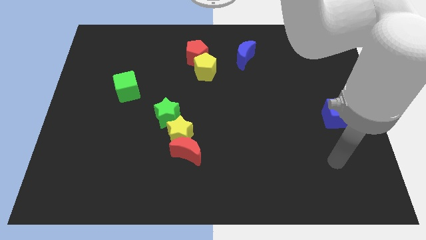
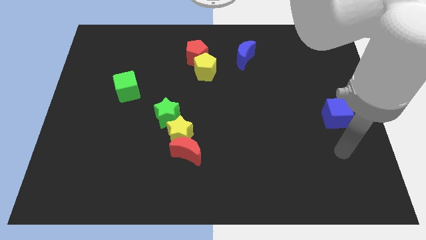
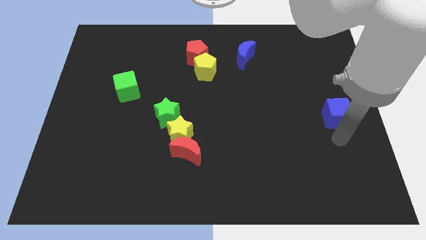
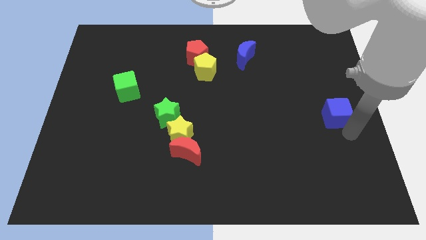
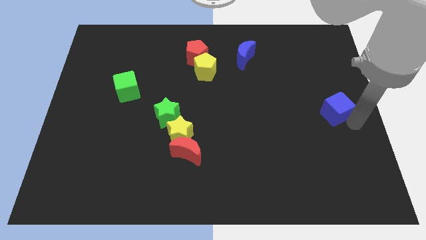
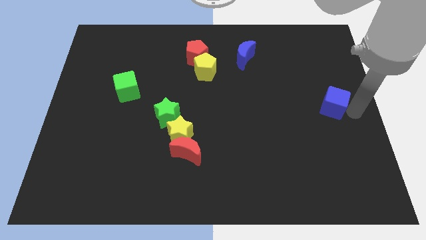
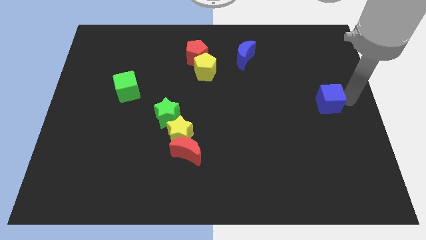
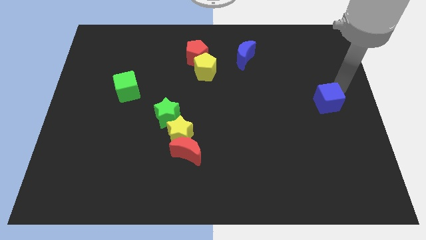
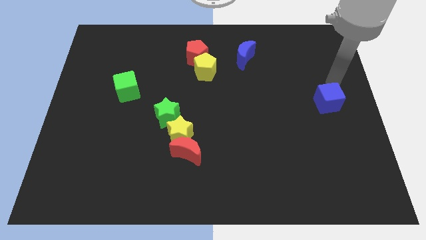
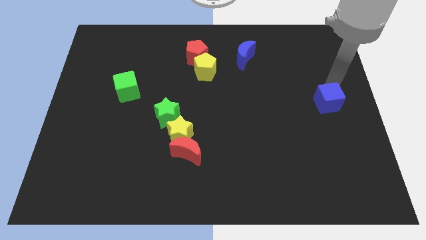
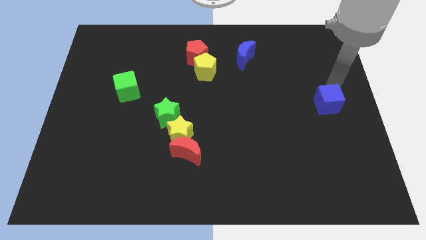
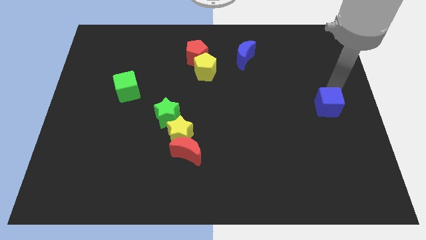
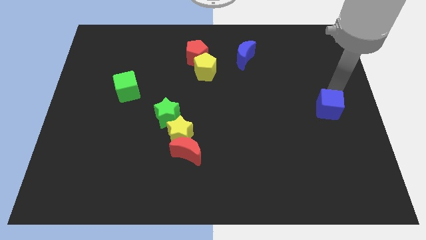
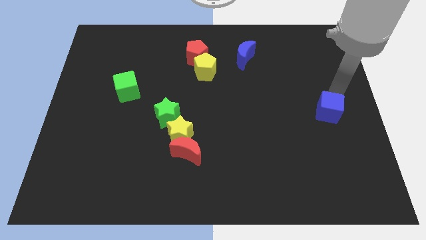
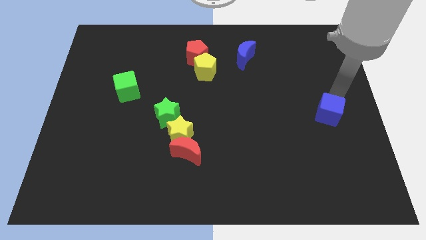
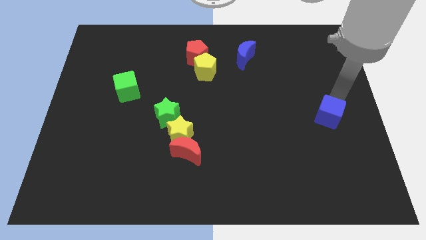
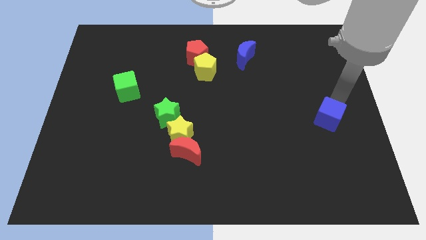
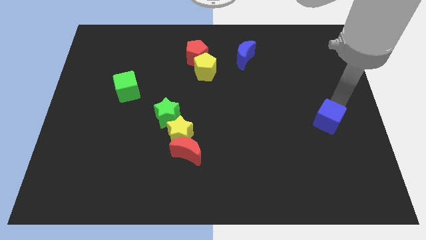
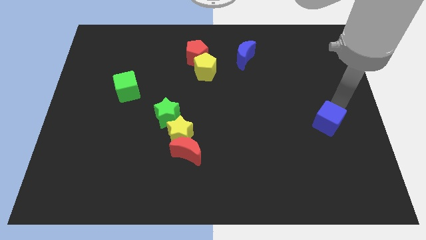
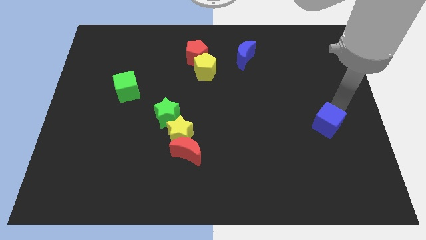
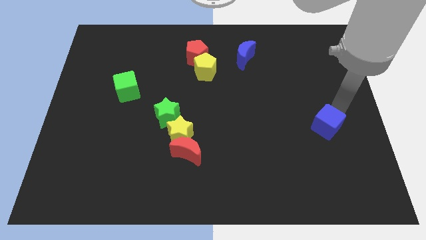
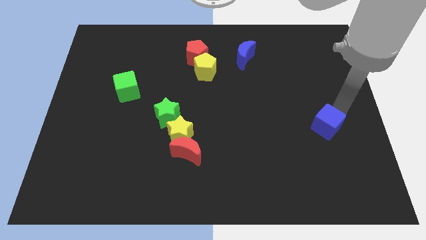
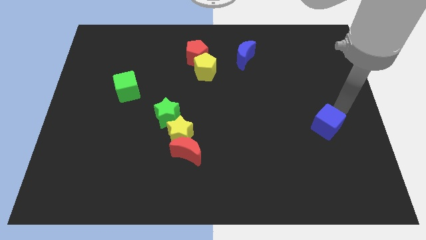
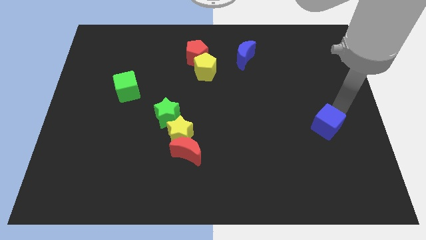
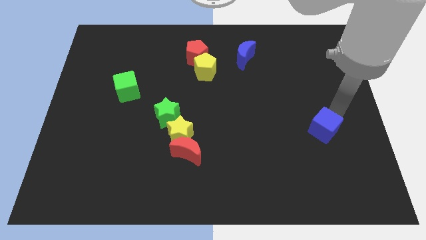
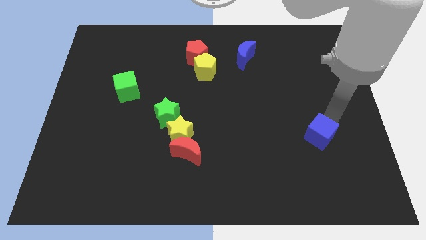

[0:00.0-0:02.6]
move the blue cube diagonally downwards and left a little bit

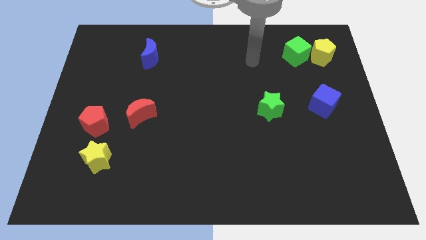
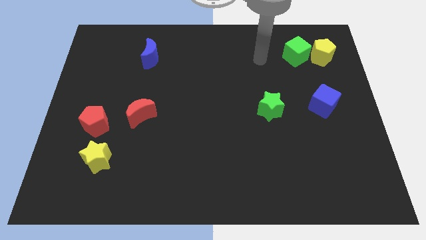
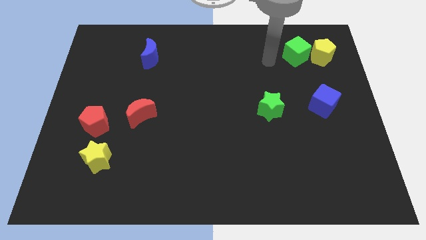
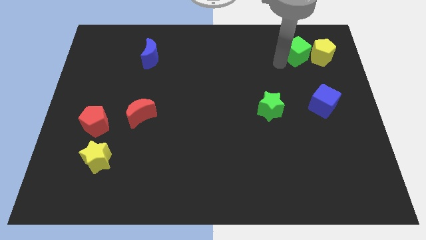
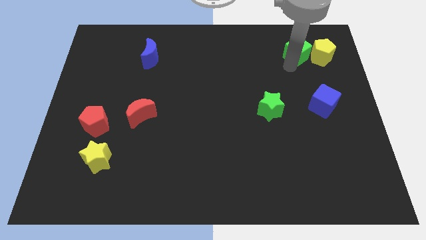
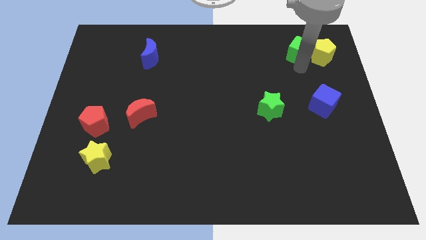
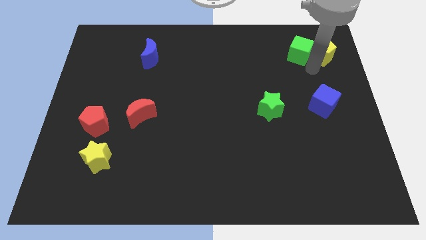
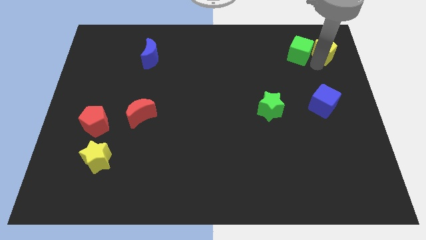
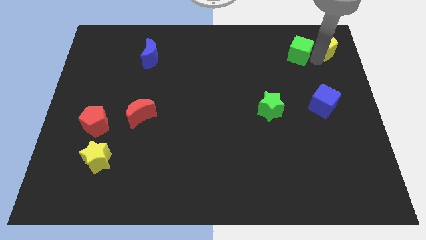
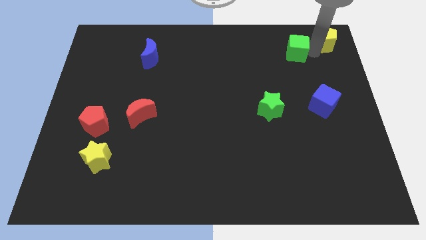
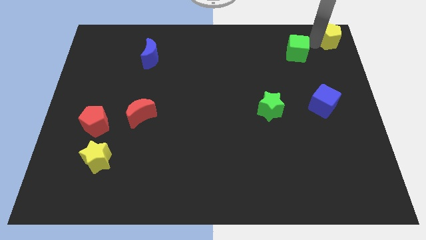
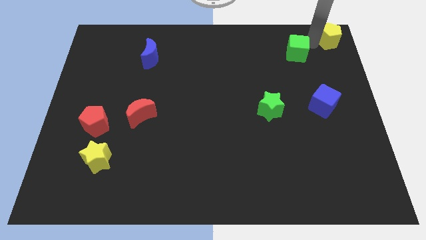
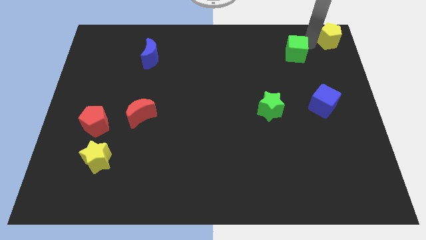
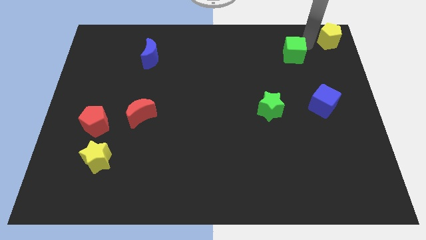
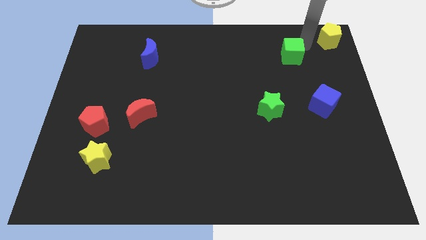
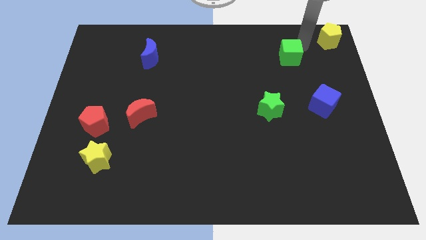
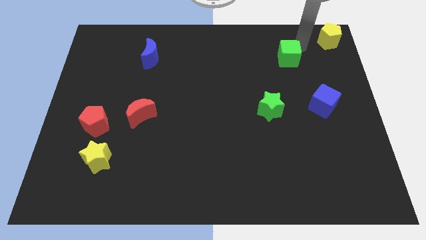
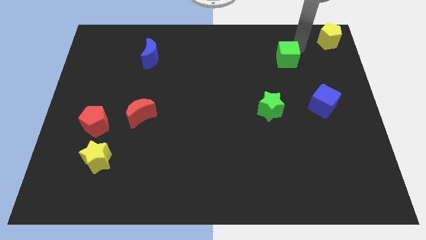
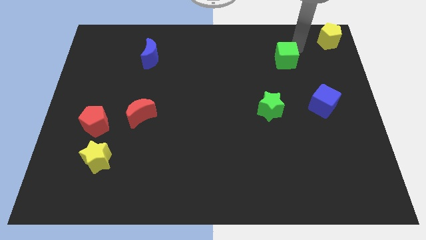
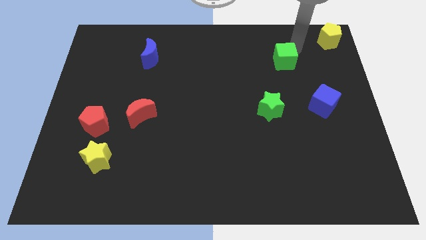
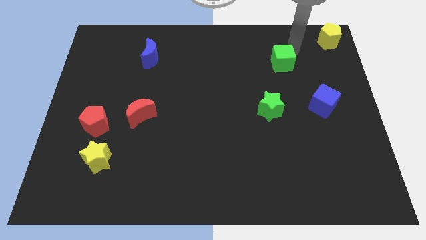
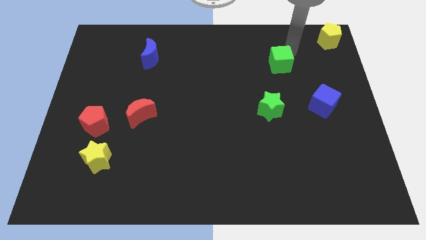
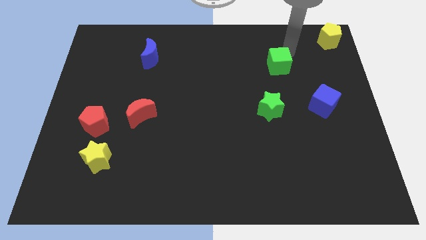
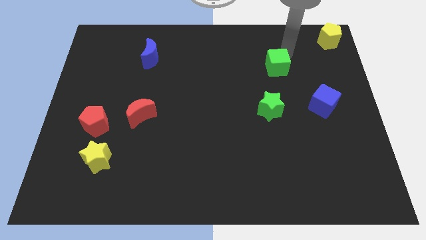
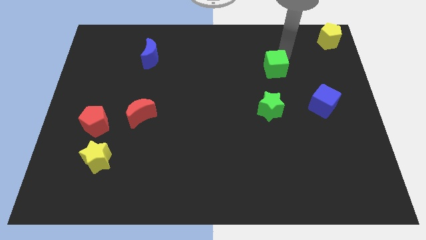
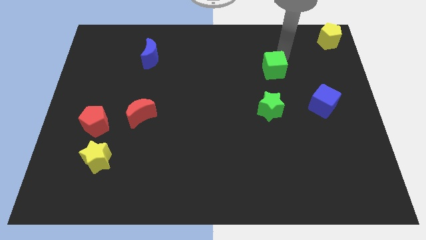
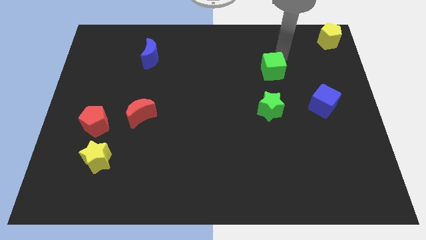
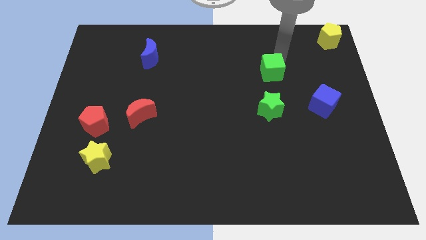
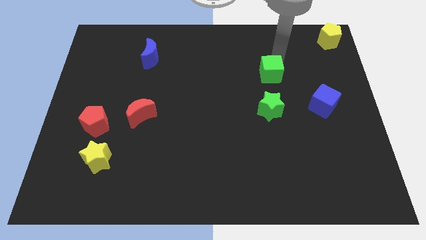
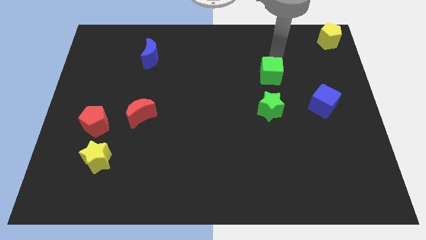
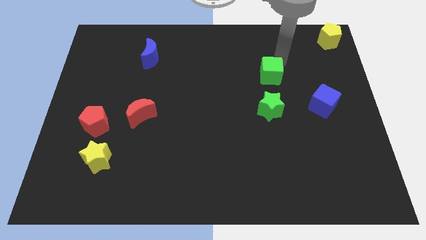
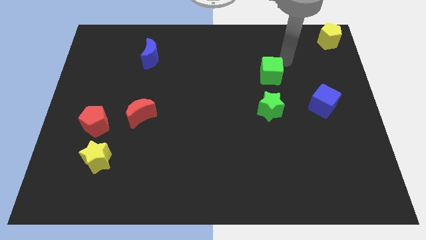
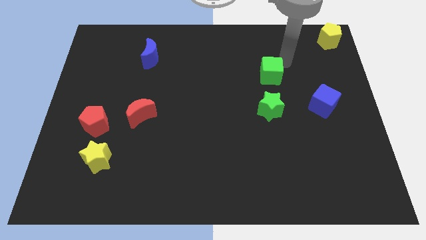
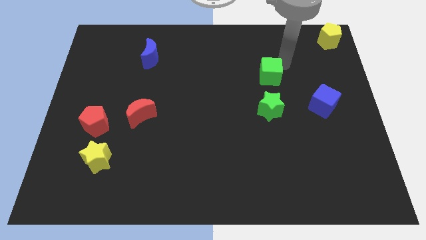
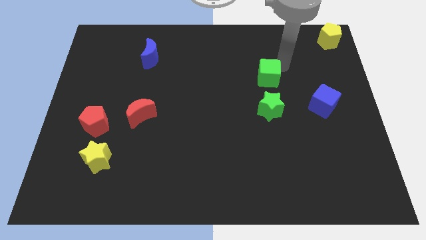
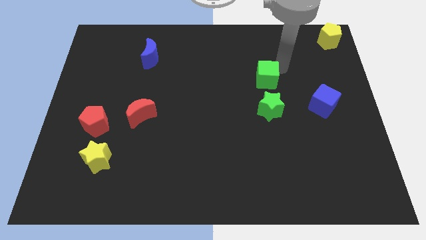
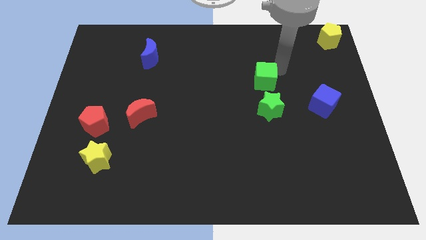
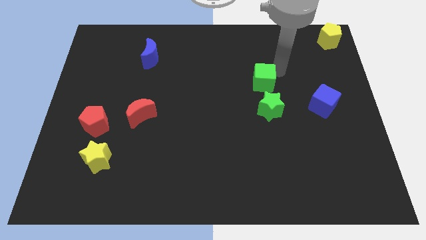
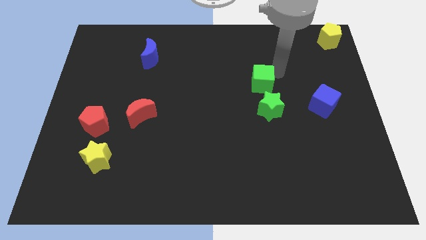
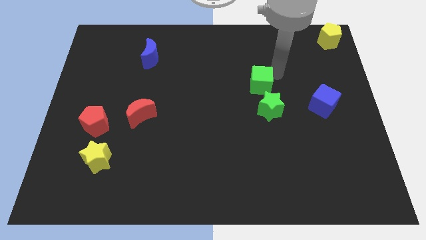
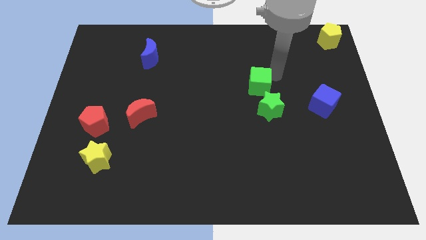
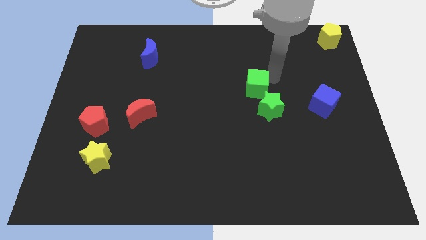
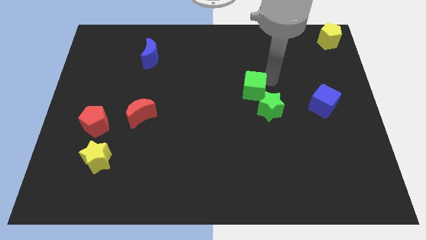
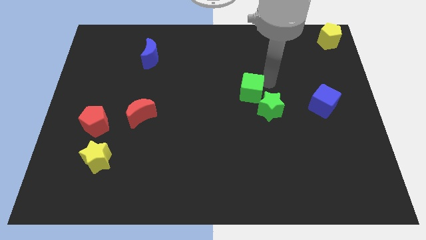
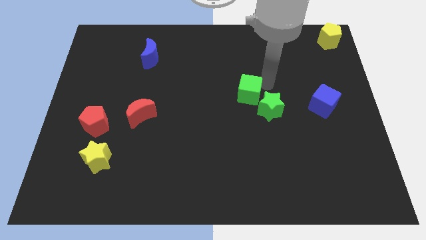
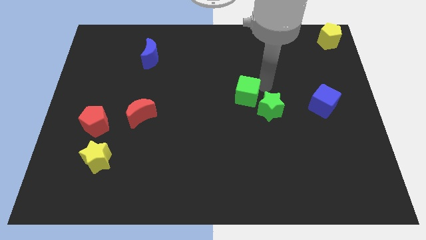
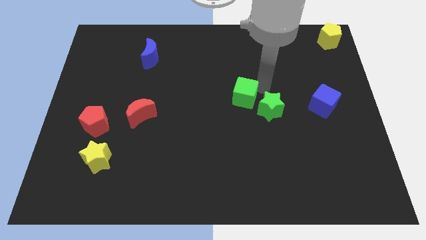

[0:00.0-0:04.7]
move the green cube diagonally down and to the left

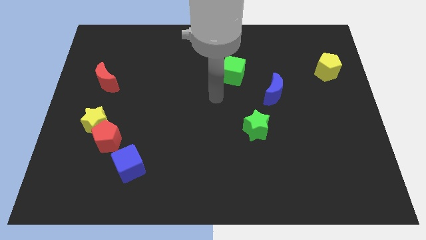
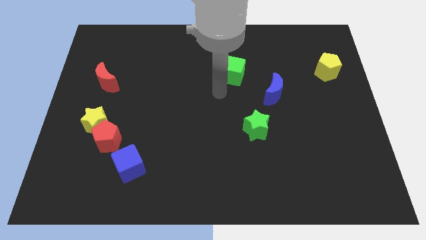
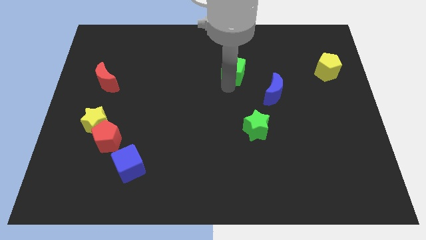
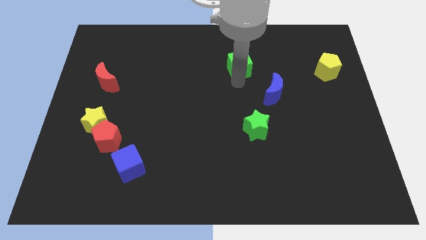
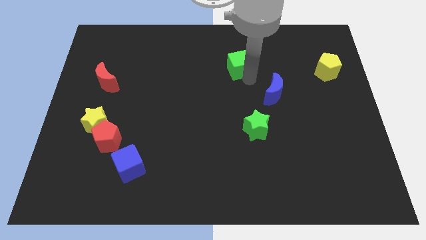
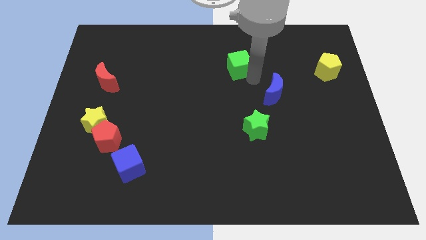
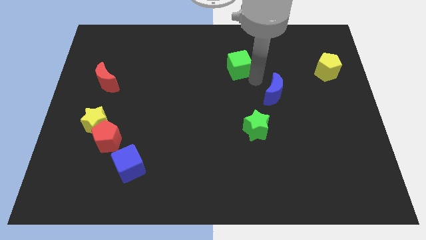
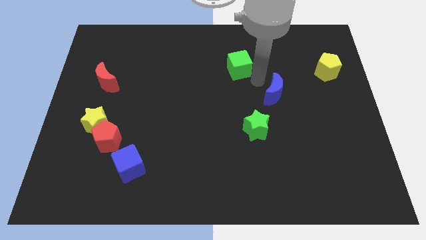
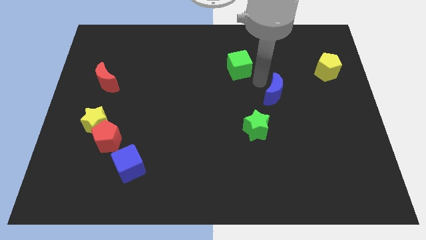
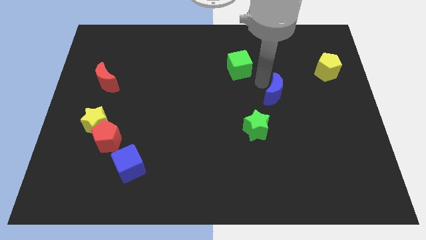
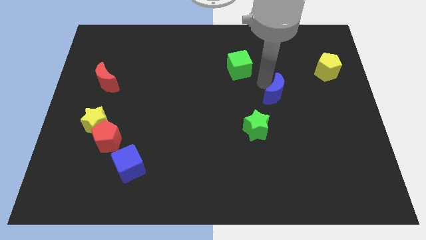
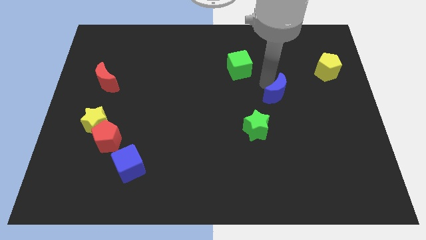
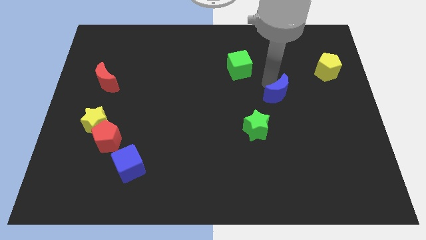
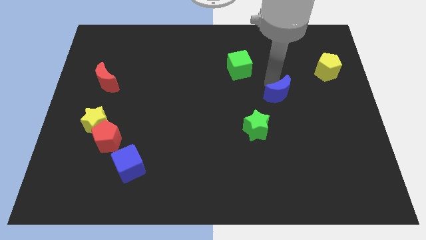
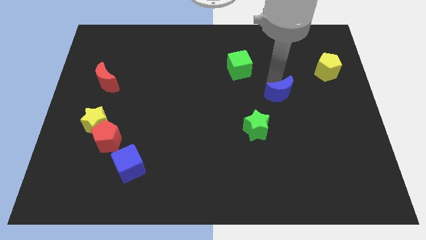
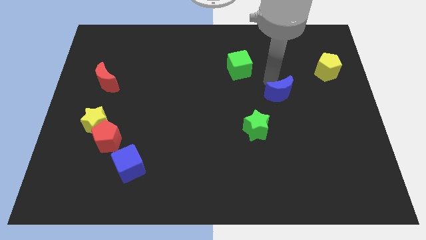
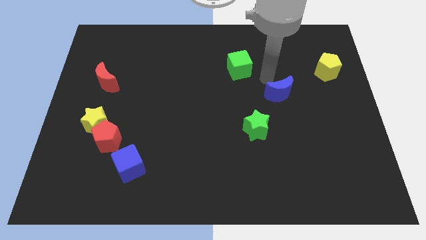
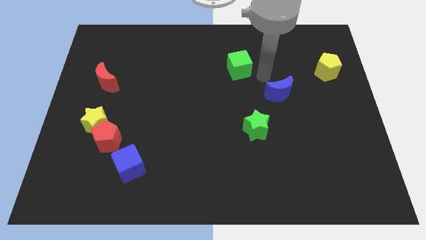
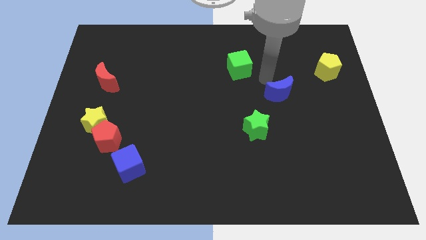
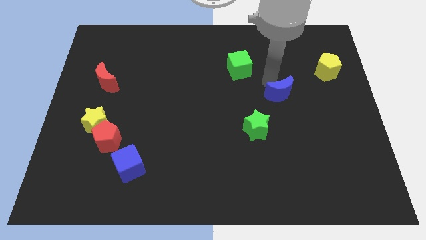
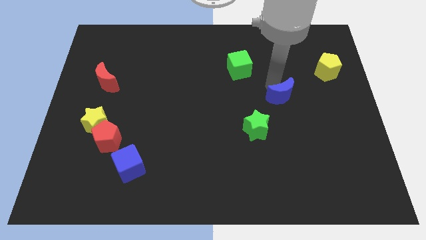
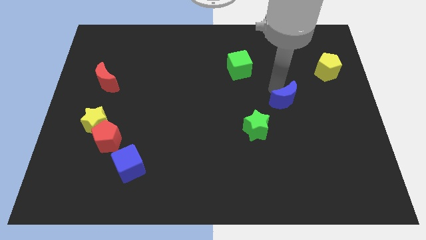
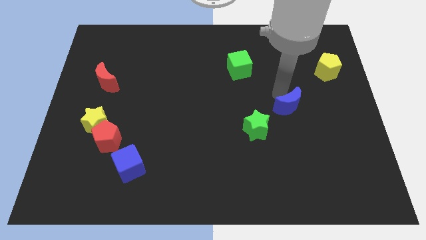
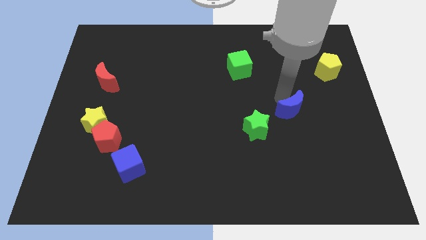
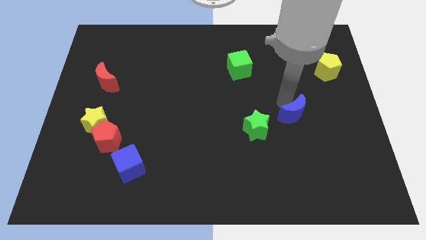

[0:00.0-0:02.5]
push the blue moon diagonally downwards and to the right a bit
